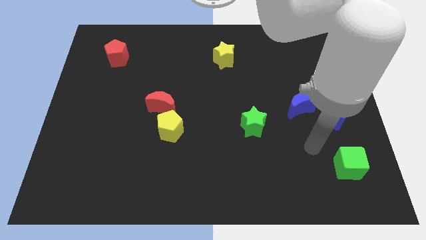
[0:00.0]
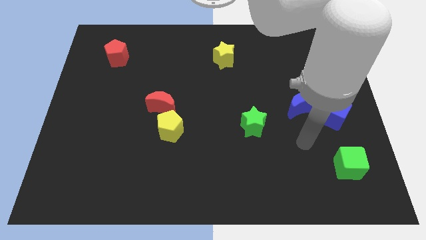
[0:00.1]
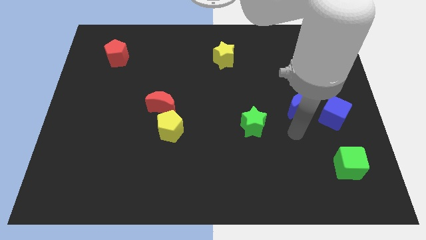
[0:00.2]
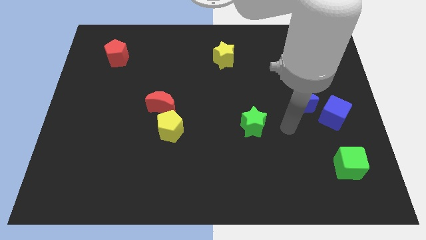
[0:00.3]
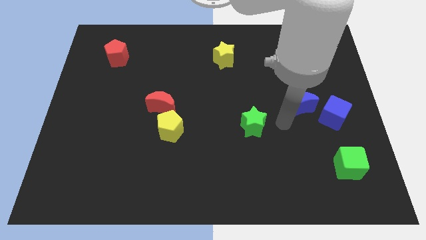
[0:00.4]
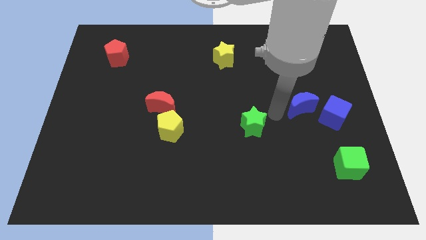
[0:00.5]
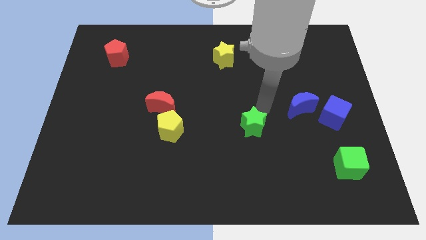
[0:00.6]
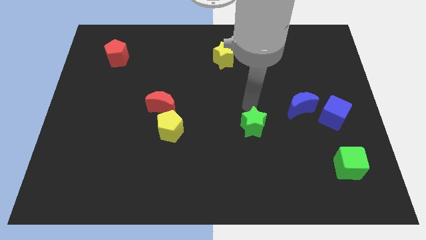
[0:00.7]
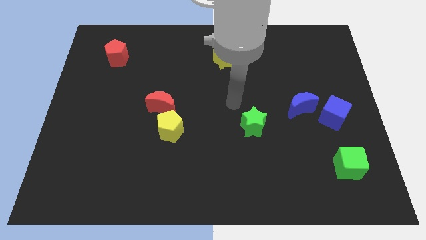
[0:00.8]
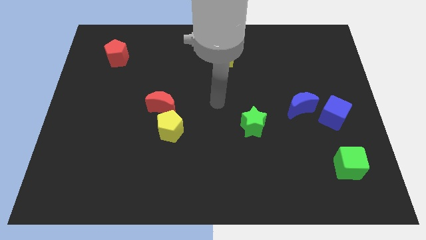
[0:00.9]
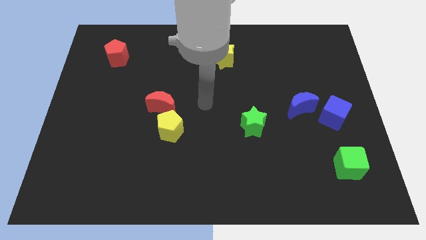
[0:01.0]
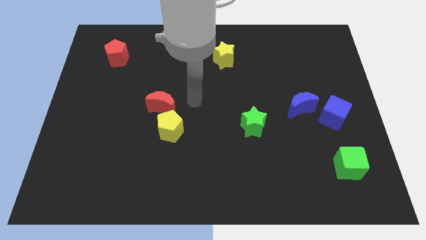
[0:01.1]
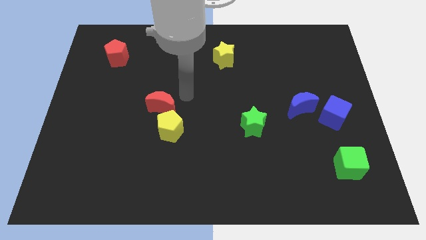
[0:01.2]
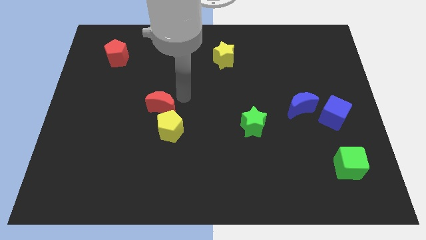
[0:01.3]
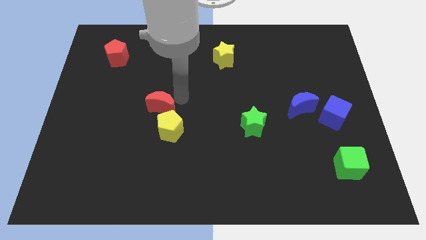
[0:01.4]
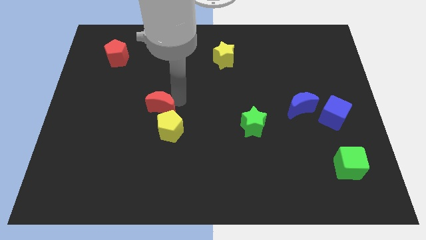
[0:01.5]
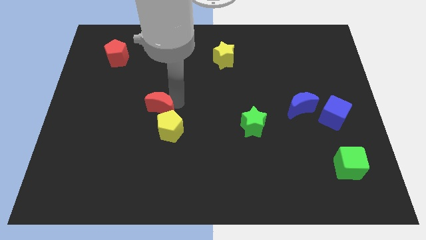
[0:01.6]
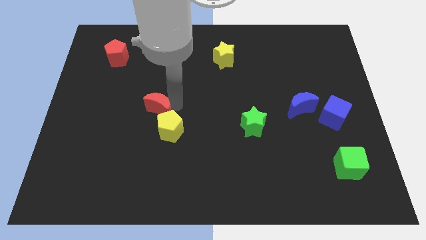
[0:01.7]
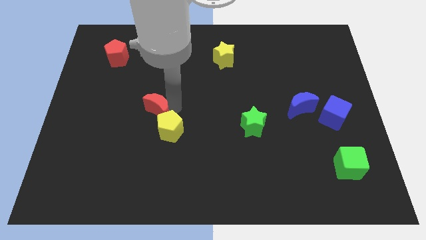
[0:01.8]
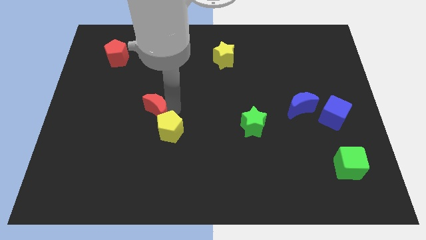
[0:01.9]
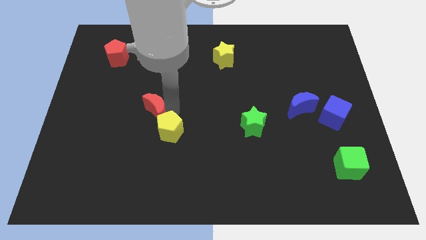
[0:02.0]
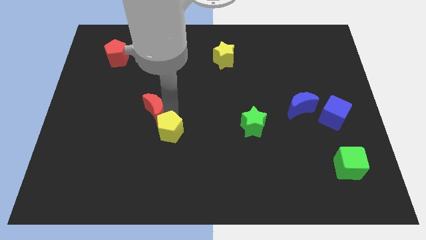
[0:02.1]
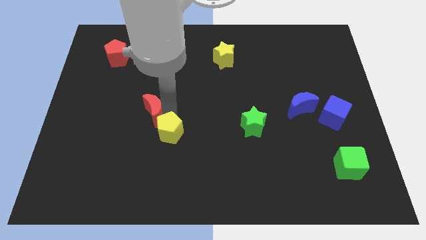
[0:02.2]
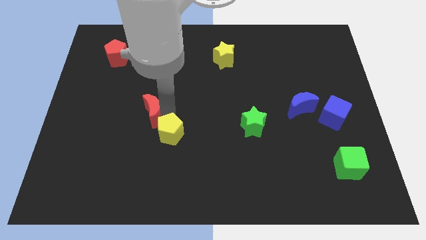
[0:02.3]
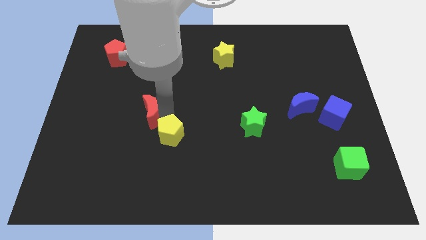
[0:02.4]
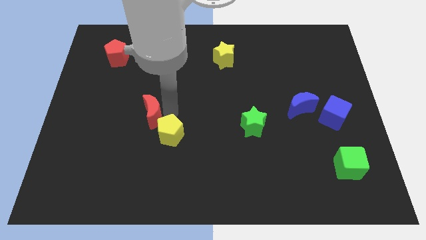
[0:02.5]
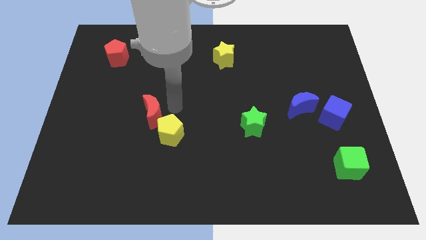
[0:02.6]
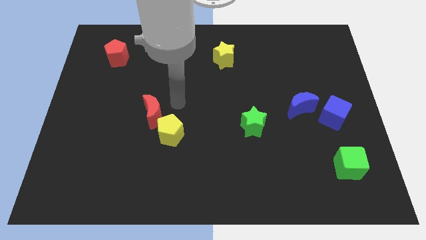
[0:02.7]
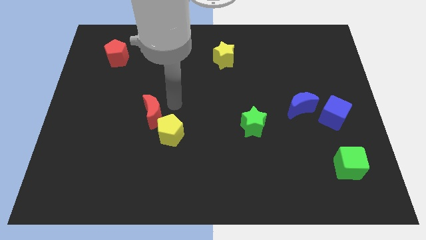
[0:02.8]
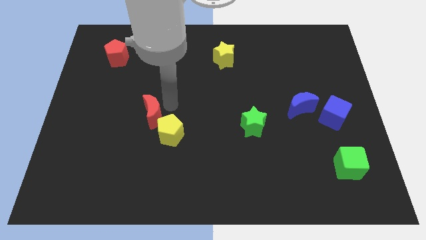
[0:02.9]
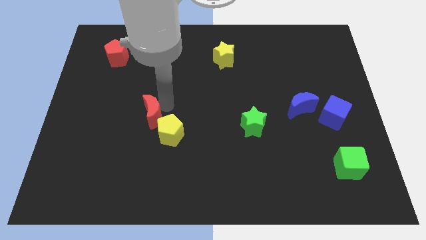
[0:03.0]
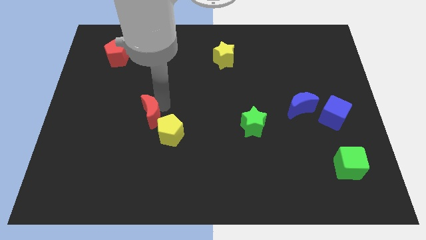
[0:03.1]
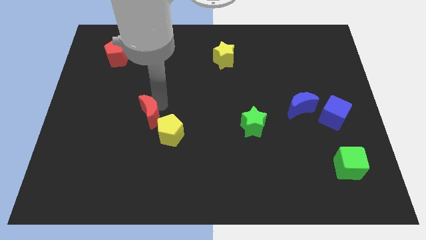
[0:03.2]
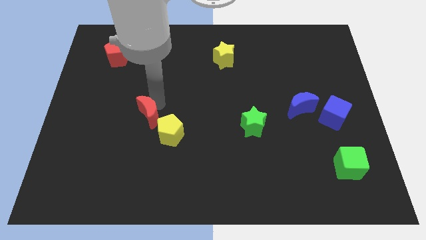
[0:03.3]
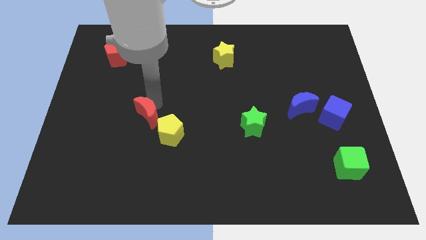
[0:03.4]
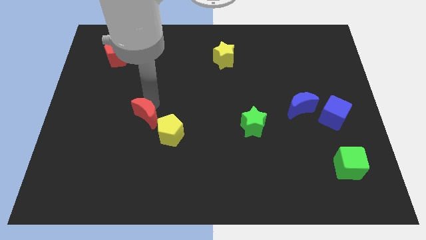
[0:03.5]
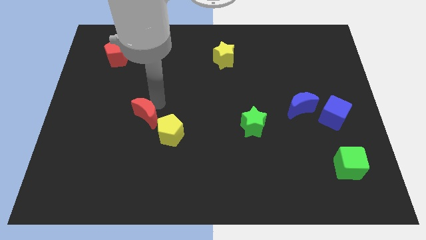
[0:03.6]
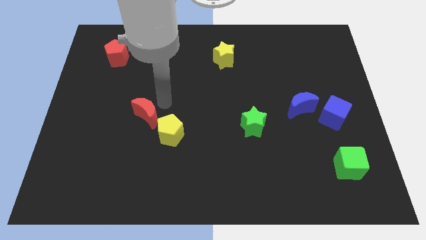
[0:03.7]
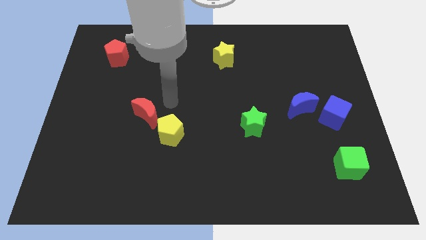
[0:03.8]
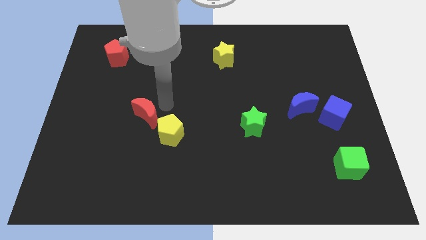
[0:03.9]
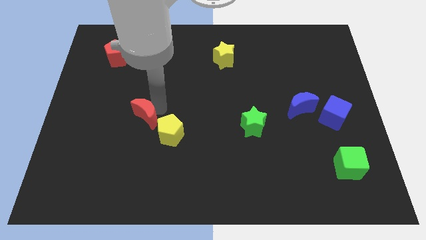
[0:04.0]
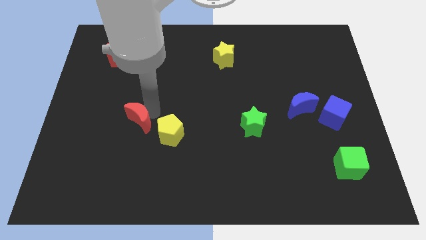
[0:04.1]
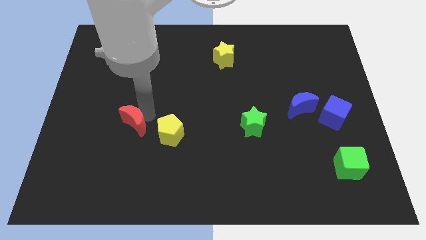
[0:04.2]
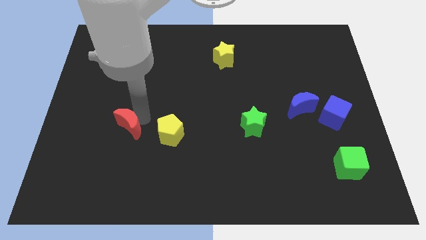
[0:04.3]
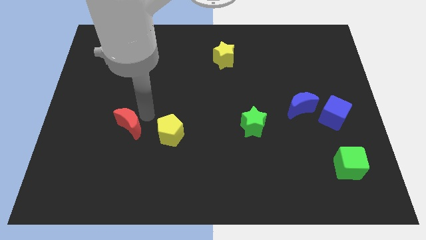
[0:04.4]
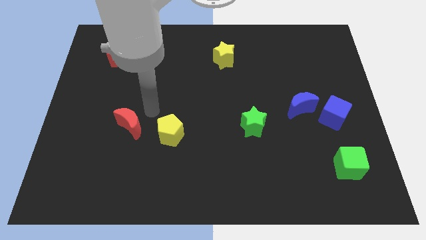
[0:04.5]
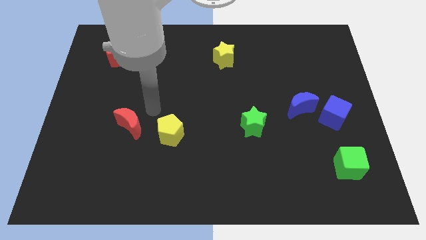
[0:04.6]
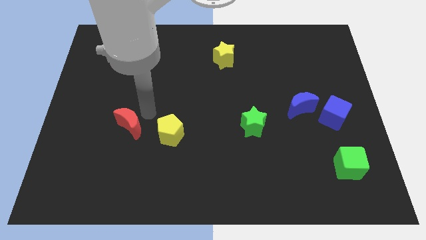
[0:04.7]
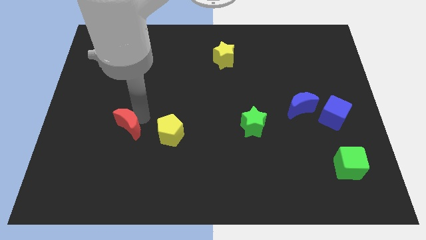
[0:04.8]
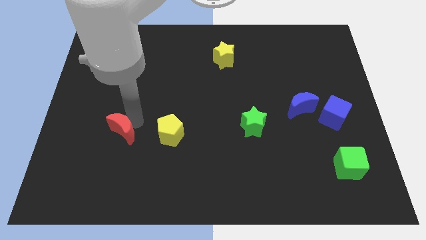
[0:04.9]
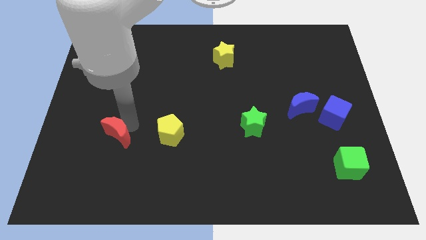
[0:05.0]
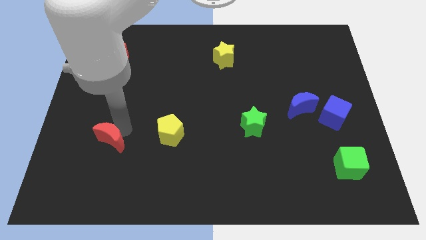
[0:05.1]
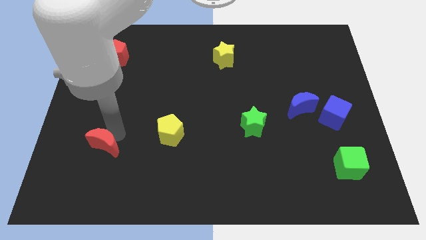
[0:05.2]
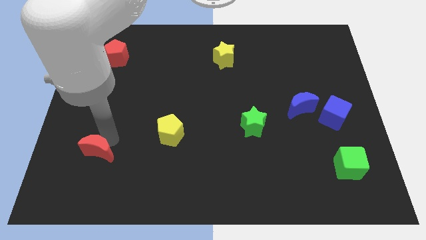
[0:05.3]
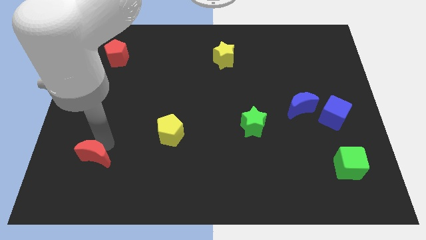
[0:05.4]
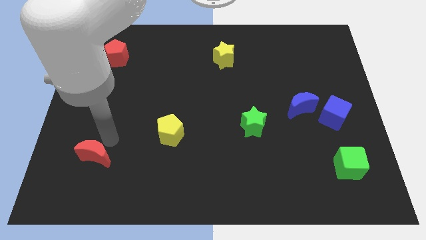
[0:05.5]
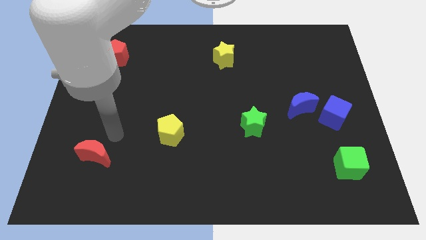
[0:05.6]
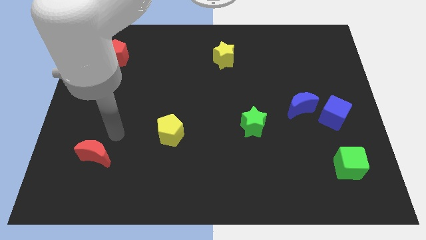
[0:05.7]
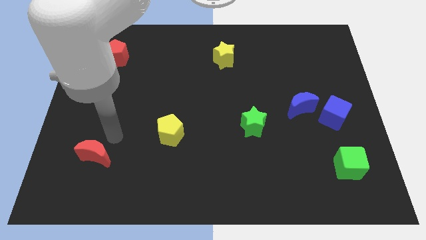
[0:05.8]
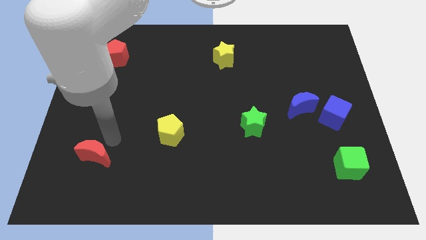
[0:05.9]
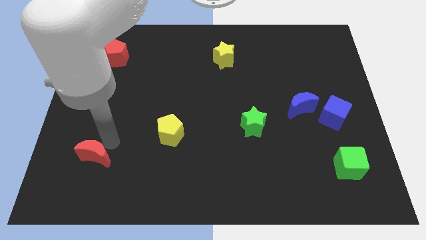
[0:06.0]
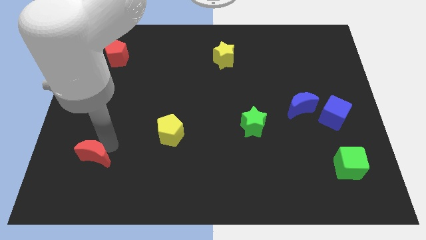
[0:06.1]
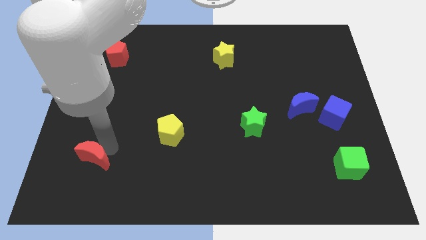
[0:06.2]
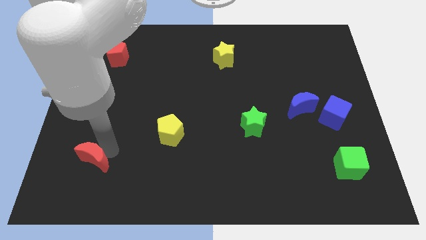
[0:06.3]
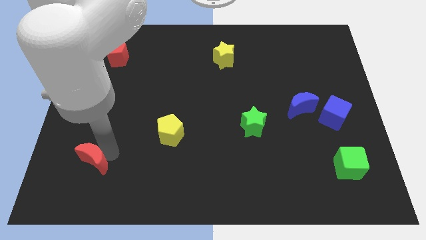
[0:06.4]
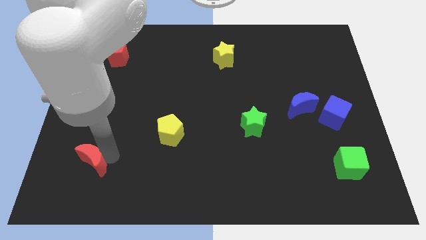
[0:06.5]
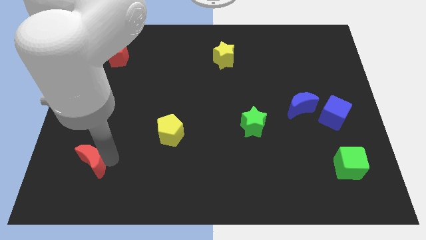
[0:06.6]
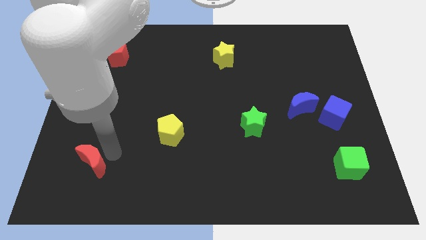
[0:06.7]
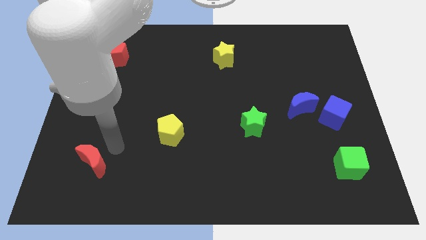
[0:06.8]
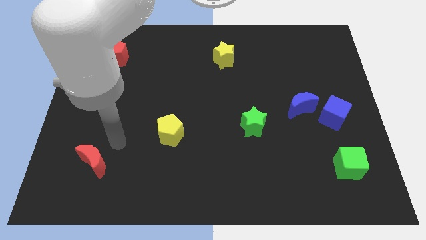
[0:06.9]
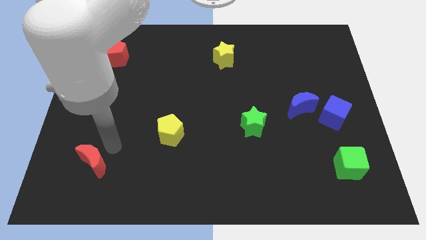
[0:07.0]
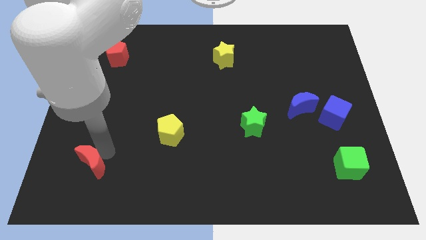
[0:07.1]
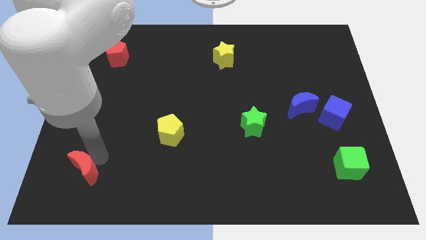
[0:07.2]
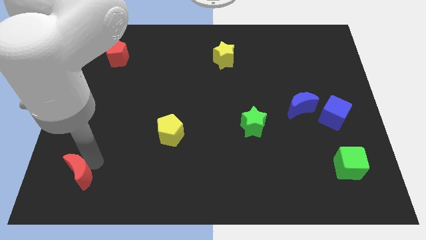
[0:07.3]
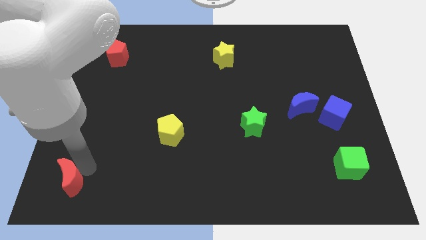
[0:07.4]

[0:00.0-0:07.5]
slide the red moon to the lower left corner
